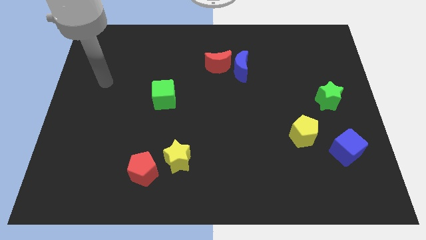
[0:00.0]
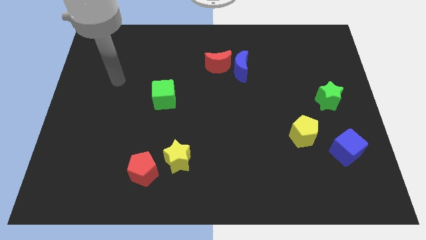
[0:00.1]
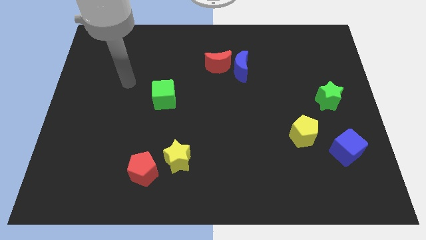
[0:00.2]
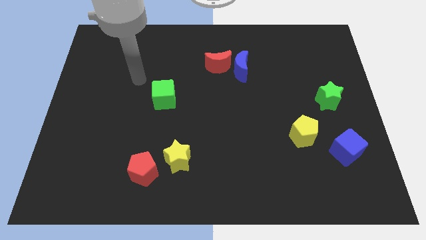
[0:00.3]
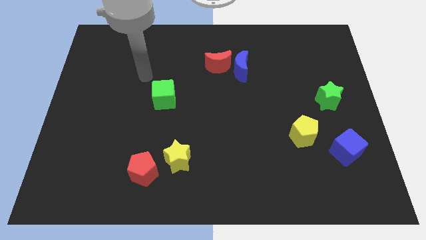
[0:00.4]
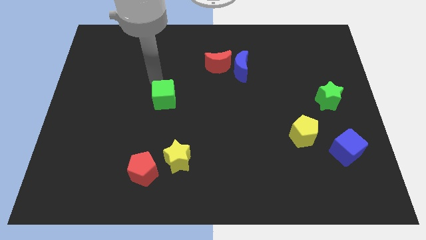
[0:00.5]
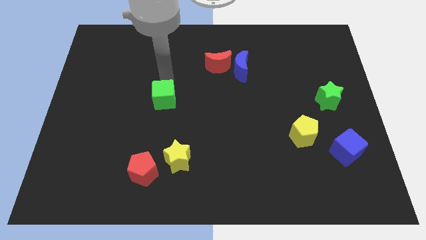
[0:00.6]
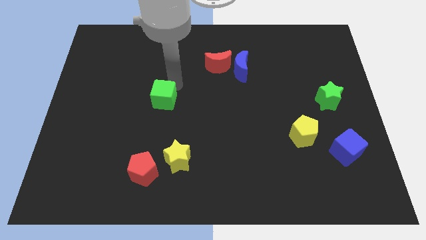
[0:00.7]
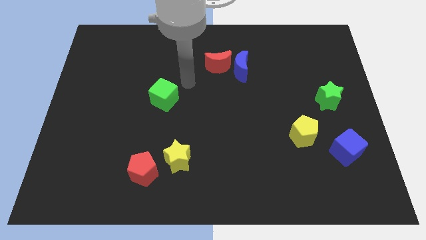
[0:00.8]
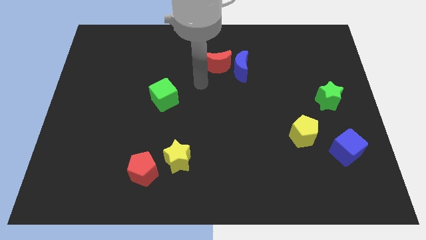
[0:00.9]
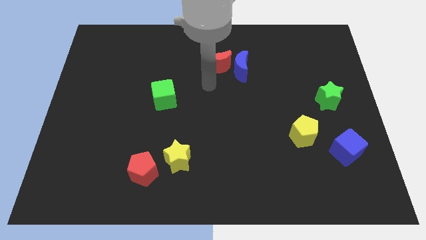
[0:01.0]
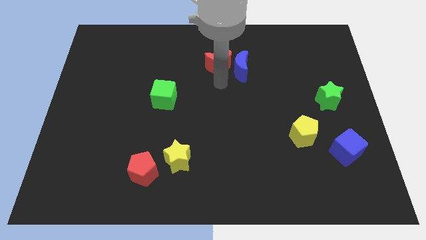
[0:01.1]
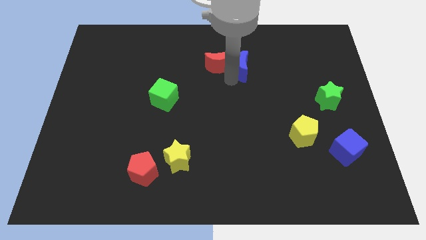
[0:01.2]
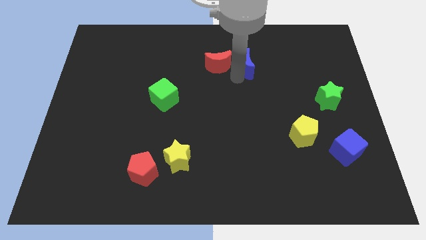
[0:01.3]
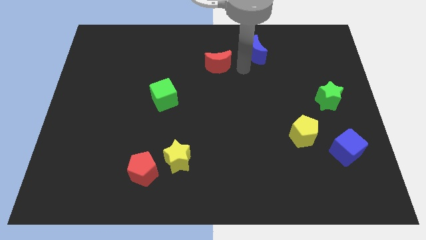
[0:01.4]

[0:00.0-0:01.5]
pull the red moon apart from the blue moon

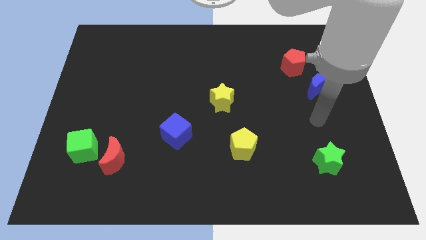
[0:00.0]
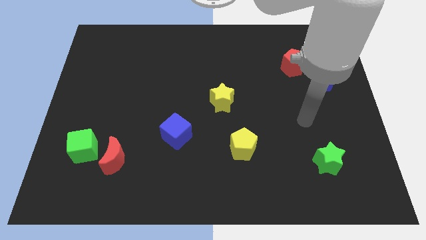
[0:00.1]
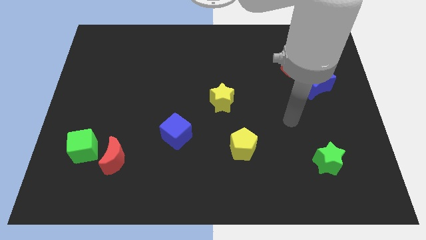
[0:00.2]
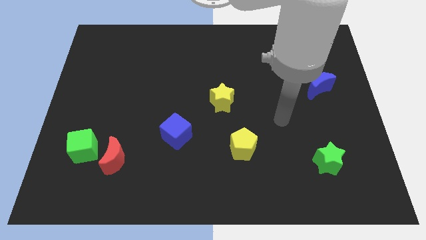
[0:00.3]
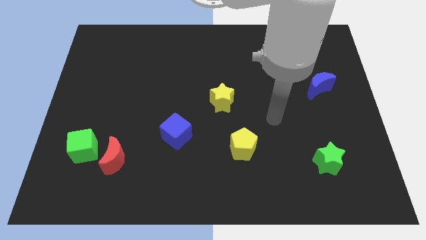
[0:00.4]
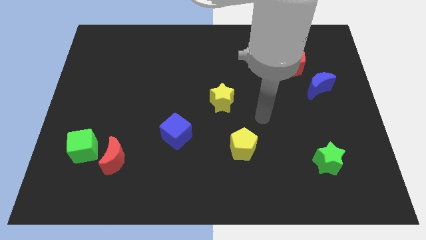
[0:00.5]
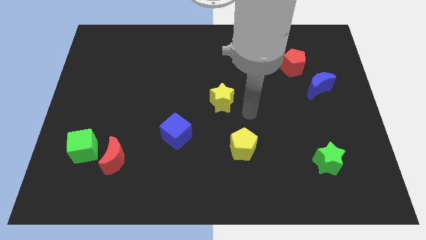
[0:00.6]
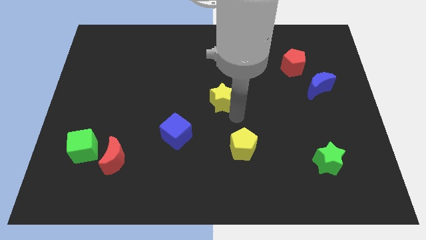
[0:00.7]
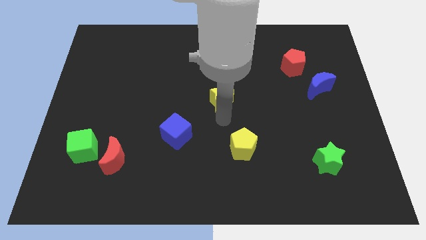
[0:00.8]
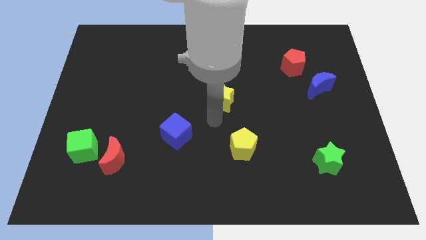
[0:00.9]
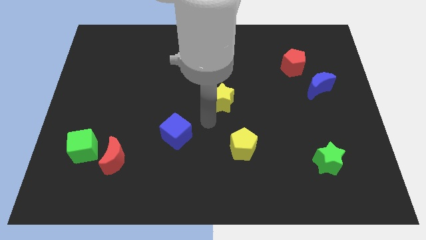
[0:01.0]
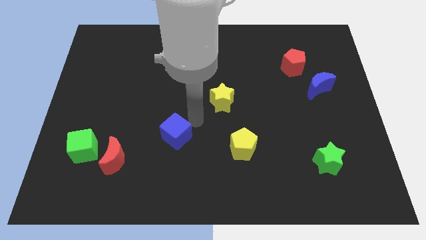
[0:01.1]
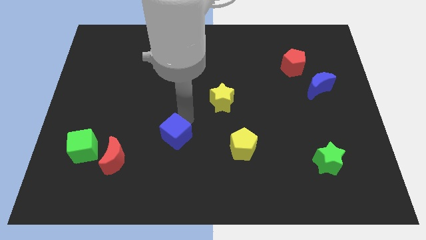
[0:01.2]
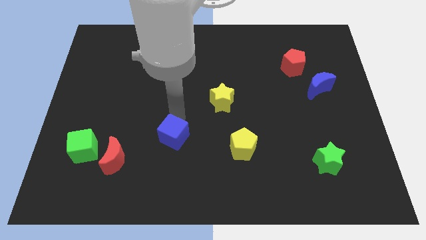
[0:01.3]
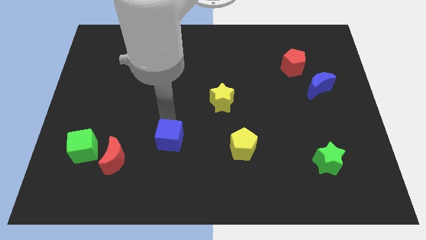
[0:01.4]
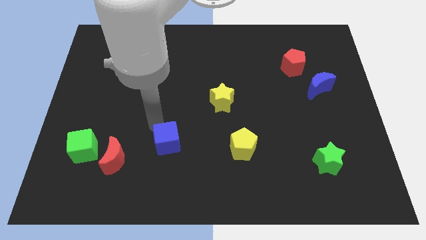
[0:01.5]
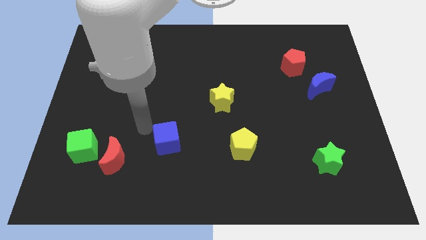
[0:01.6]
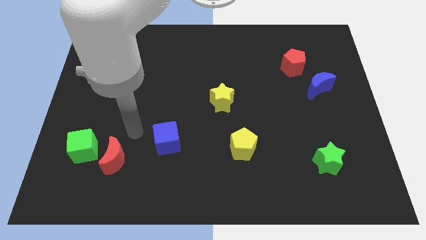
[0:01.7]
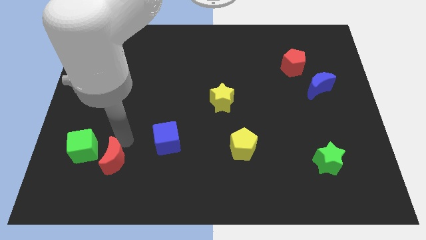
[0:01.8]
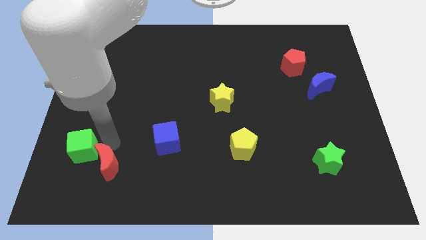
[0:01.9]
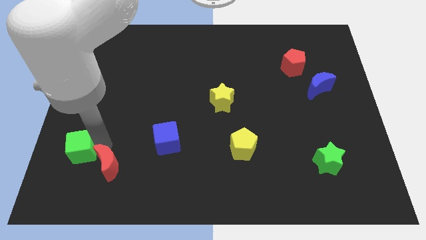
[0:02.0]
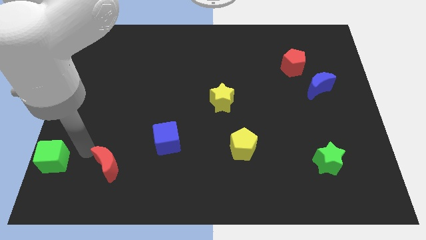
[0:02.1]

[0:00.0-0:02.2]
pull the red moon apart from the green cube

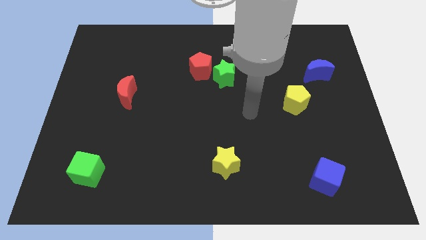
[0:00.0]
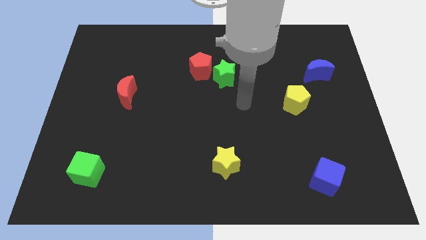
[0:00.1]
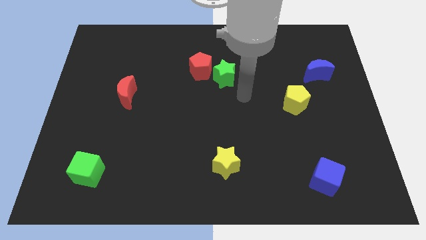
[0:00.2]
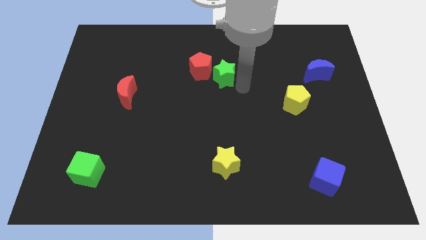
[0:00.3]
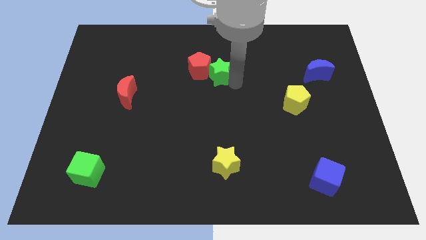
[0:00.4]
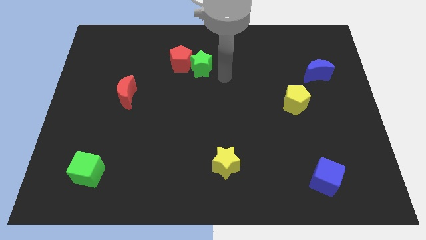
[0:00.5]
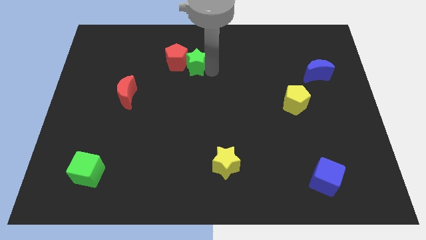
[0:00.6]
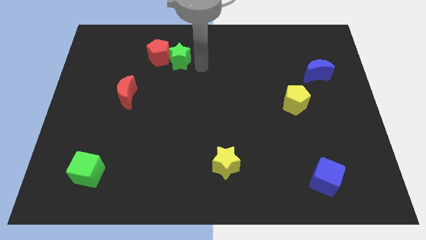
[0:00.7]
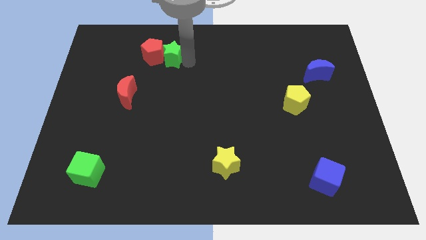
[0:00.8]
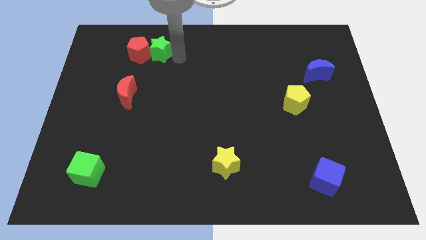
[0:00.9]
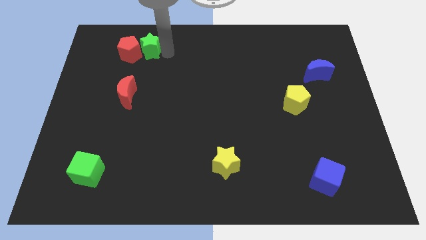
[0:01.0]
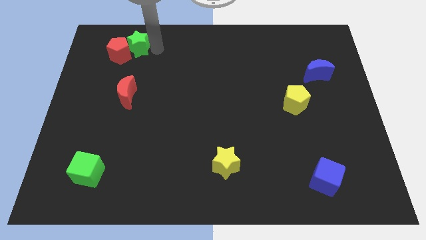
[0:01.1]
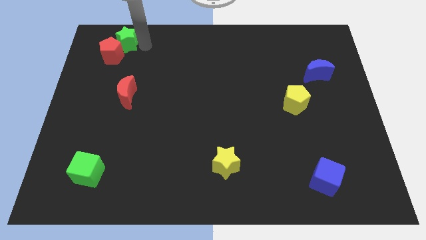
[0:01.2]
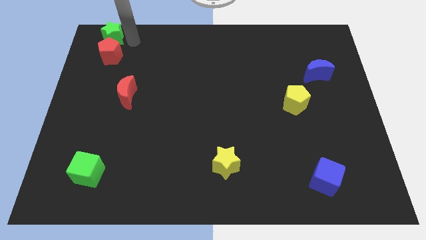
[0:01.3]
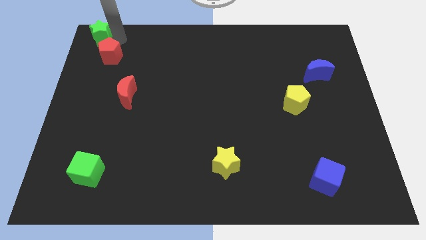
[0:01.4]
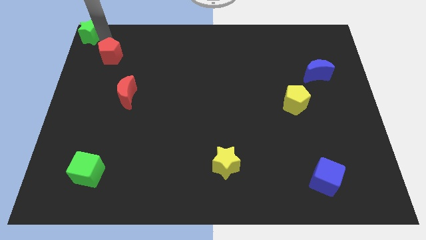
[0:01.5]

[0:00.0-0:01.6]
pull the red pentagon apart from the green star

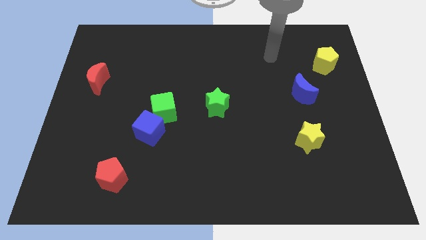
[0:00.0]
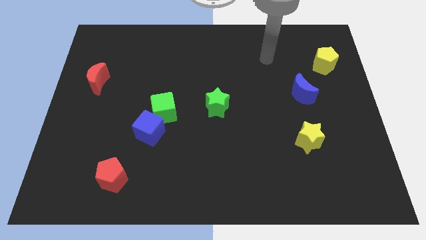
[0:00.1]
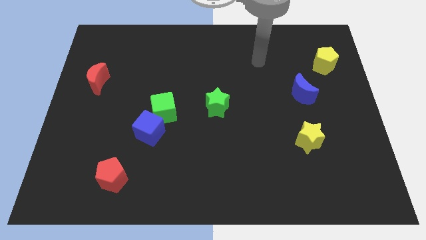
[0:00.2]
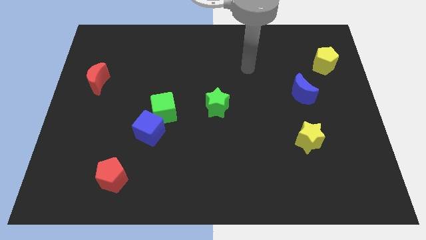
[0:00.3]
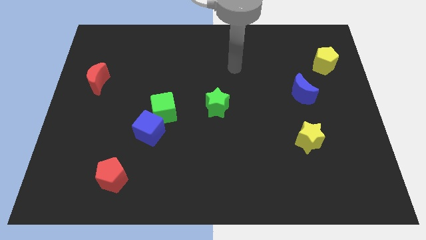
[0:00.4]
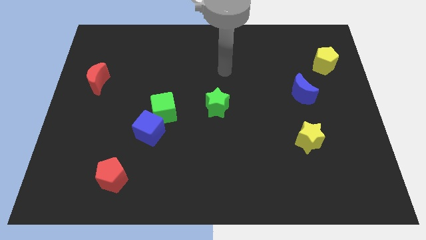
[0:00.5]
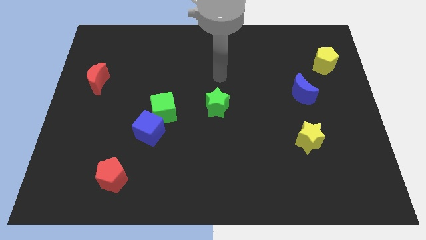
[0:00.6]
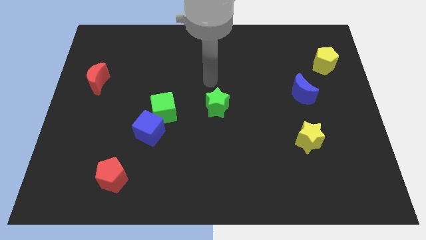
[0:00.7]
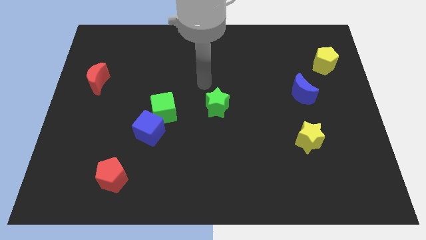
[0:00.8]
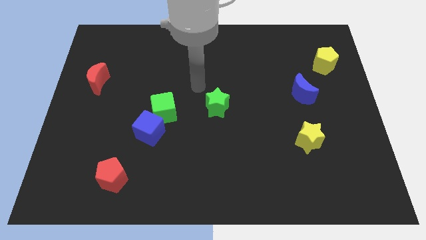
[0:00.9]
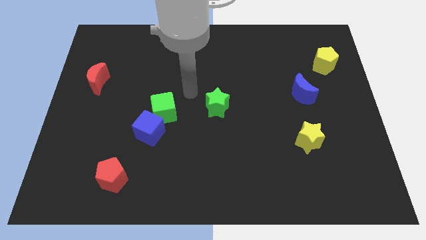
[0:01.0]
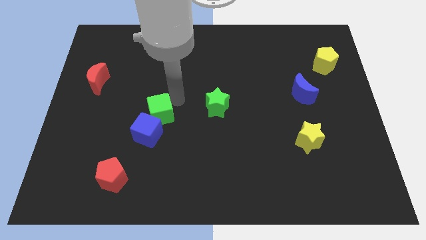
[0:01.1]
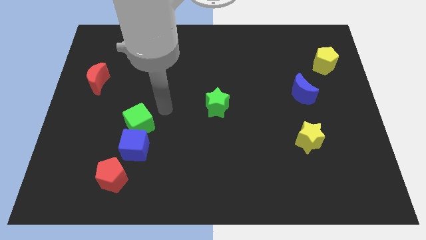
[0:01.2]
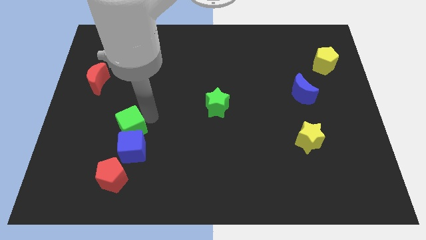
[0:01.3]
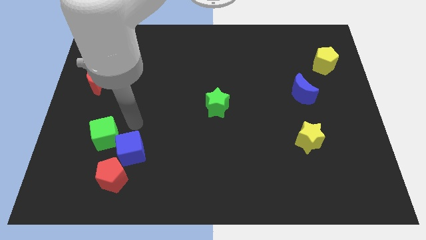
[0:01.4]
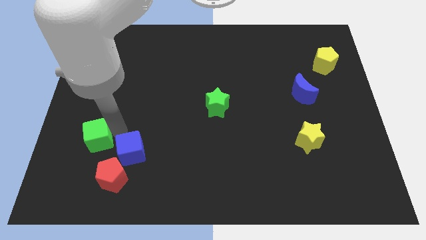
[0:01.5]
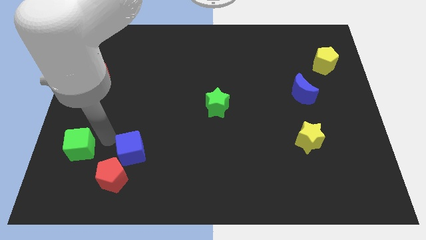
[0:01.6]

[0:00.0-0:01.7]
pull the blue cube apart from the green cube

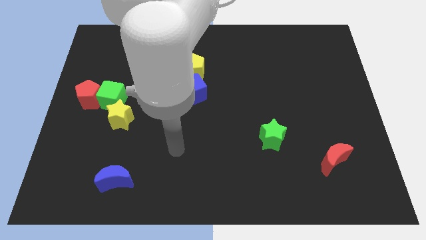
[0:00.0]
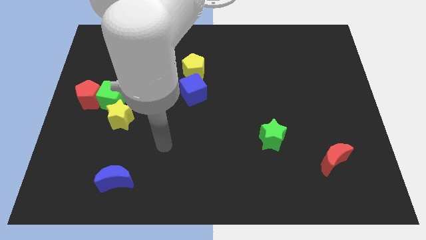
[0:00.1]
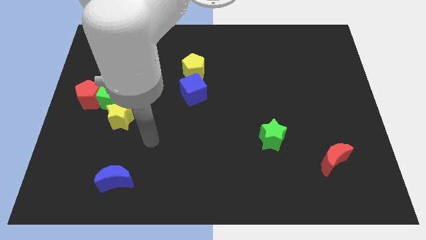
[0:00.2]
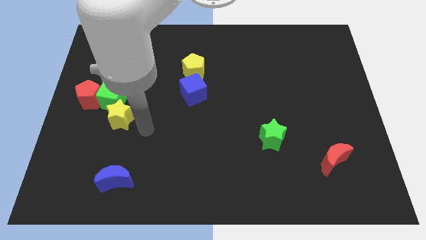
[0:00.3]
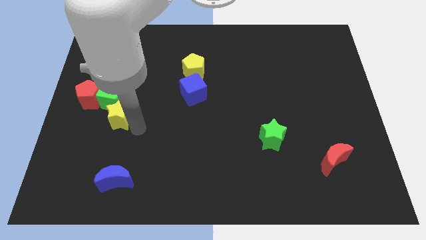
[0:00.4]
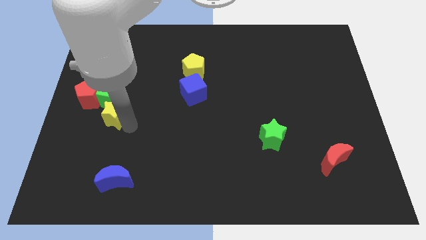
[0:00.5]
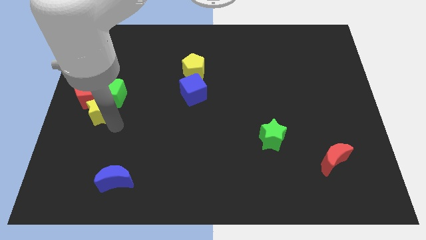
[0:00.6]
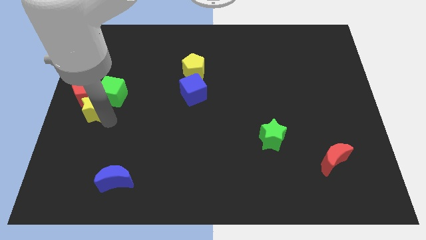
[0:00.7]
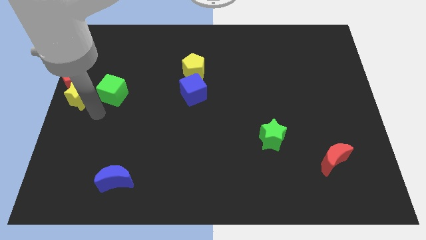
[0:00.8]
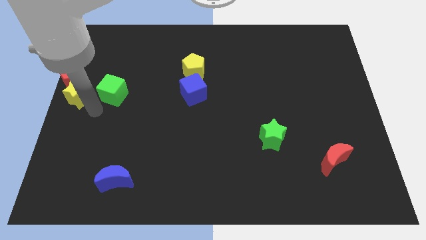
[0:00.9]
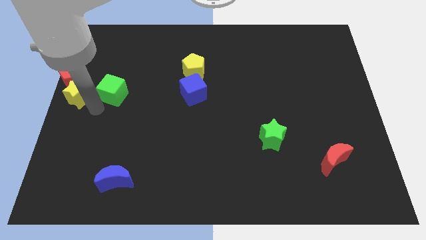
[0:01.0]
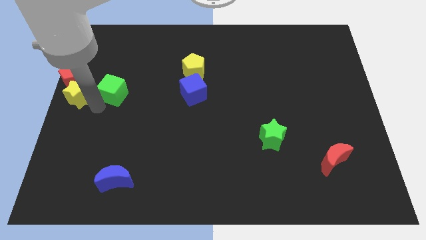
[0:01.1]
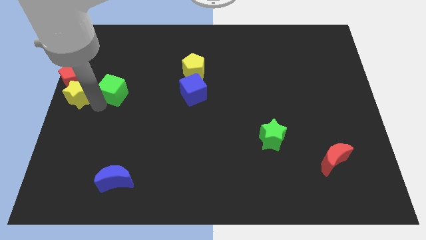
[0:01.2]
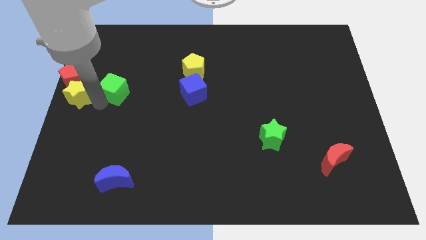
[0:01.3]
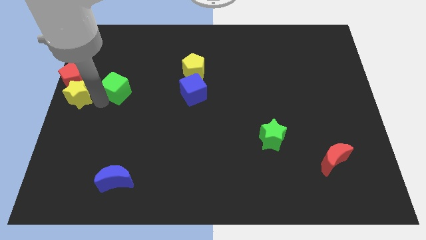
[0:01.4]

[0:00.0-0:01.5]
separate the green cube from the red pentagon and yellow star

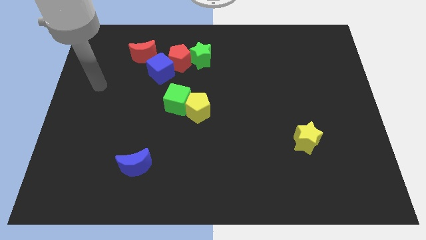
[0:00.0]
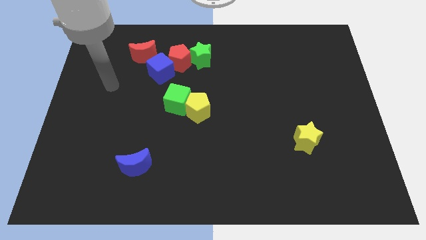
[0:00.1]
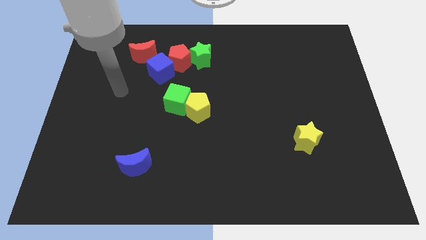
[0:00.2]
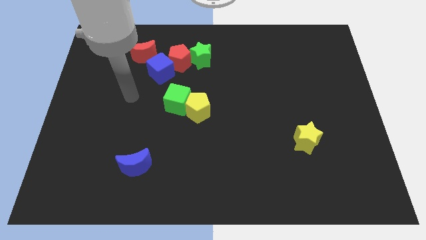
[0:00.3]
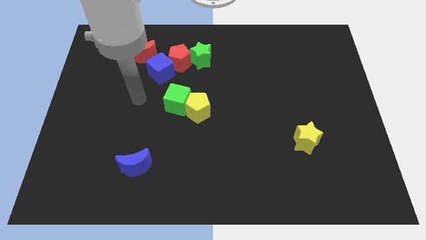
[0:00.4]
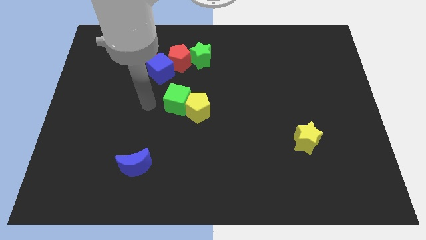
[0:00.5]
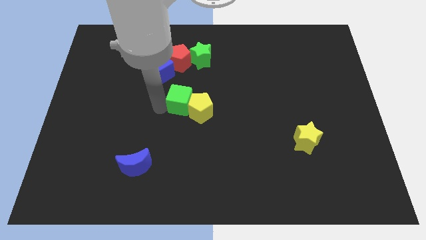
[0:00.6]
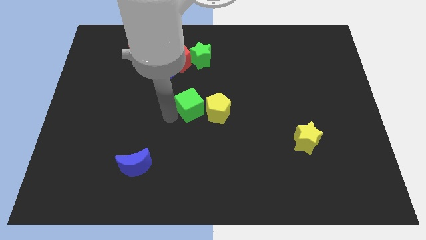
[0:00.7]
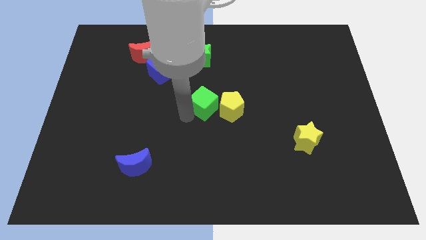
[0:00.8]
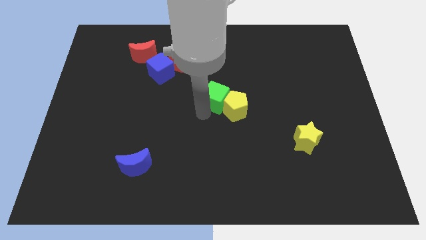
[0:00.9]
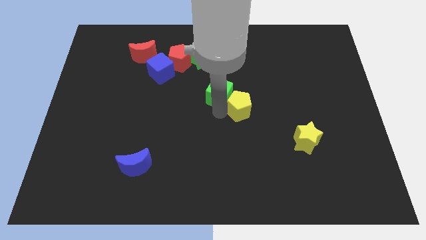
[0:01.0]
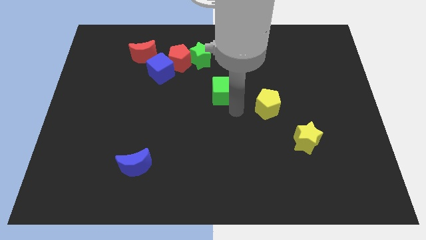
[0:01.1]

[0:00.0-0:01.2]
pull the green cube apart from the yellow pentagon
